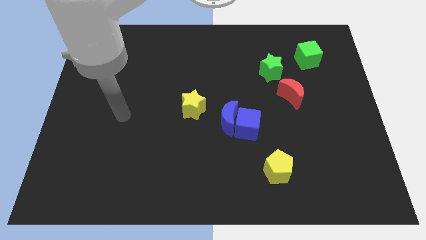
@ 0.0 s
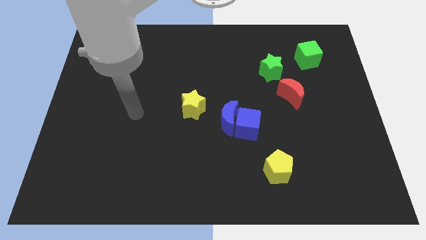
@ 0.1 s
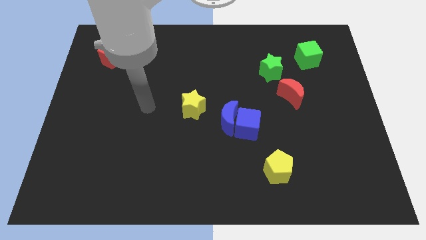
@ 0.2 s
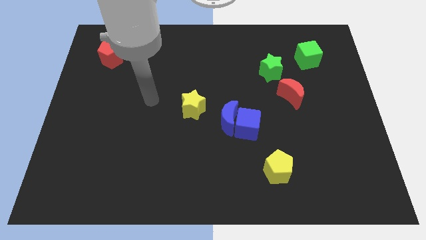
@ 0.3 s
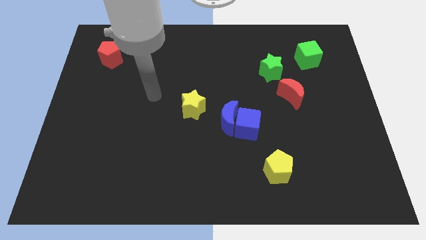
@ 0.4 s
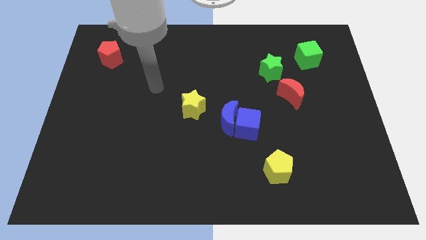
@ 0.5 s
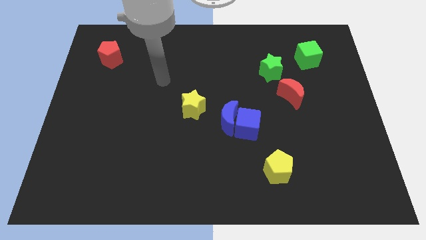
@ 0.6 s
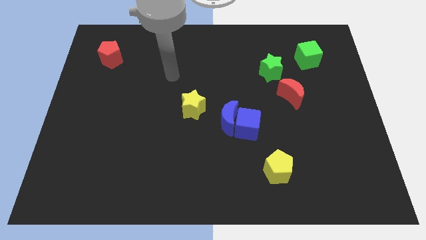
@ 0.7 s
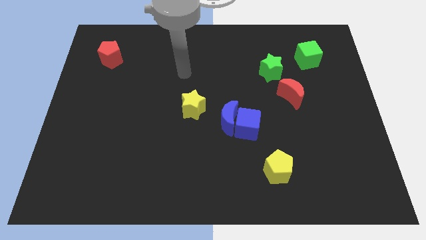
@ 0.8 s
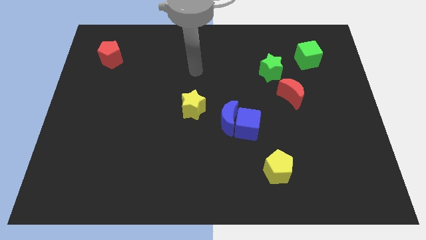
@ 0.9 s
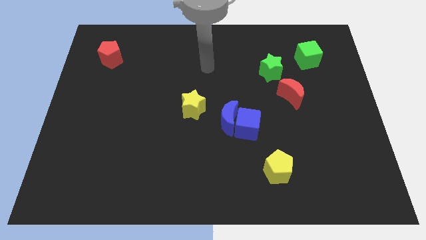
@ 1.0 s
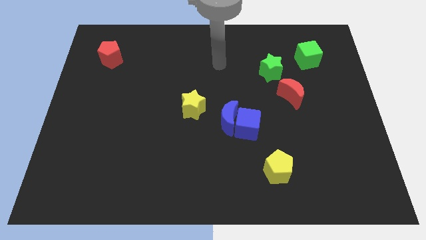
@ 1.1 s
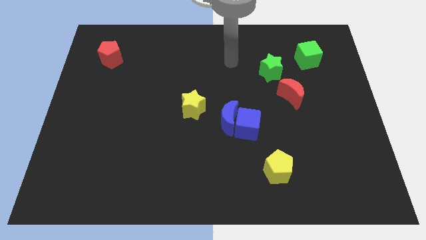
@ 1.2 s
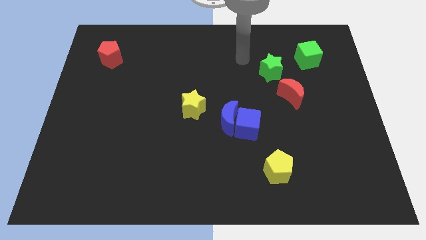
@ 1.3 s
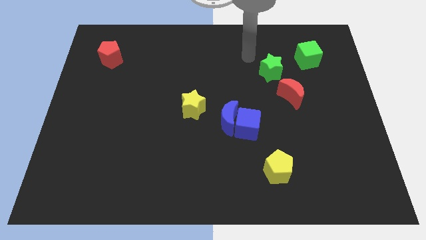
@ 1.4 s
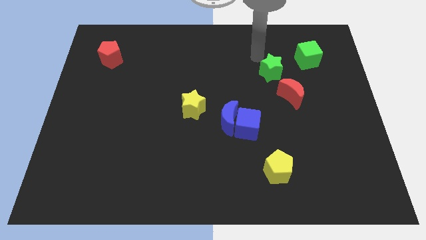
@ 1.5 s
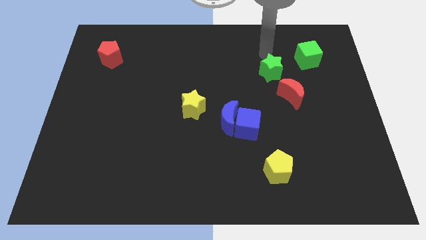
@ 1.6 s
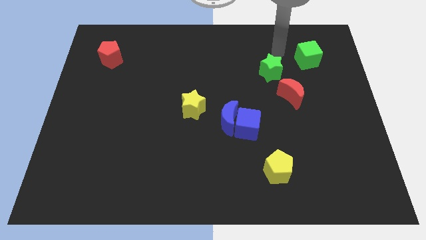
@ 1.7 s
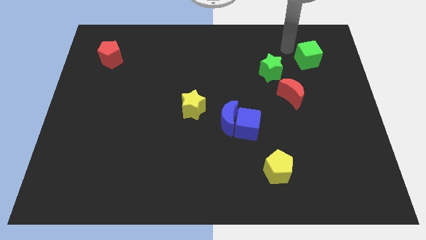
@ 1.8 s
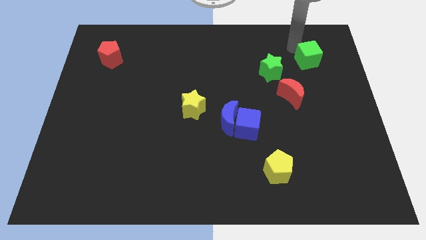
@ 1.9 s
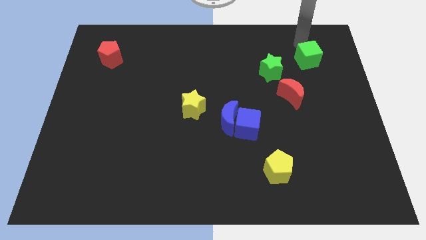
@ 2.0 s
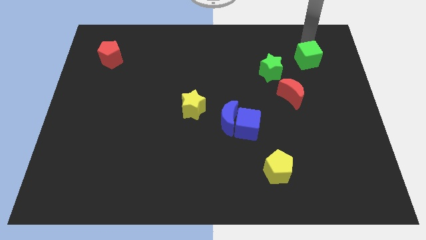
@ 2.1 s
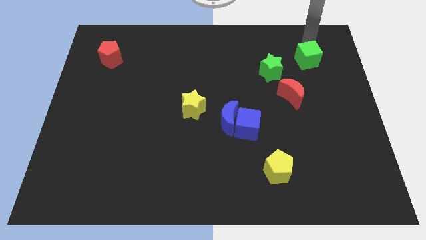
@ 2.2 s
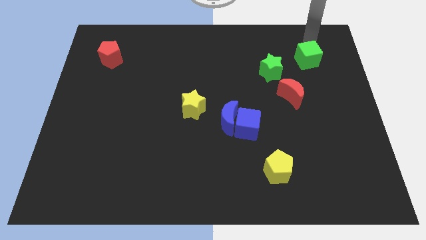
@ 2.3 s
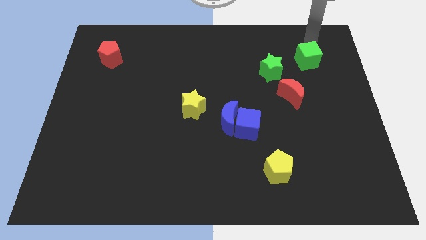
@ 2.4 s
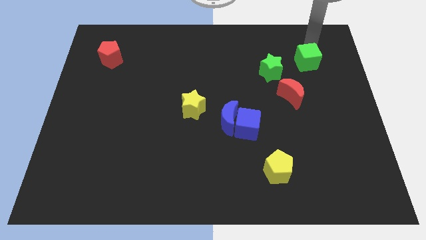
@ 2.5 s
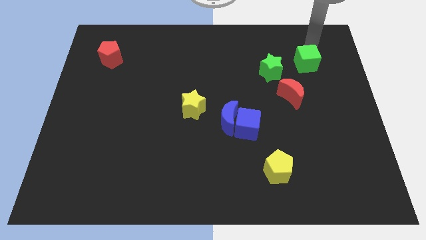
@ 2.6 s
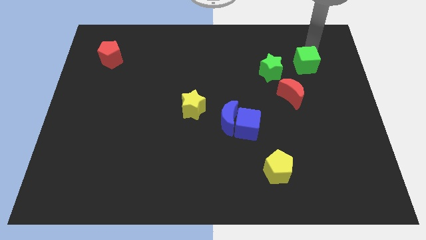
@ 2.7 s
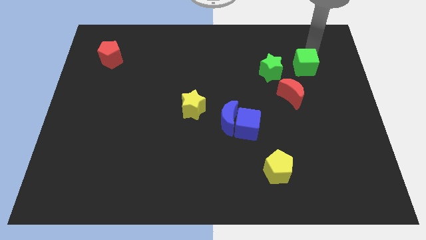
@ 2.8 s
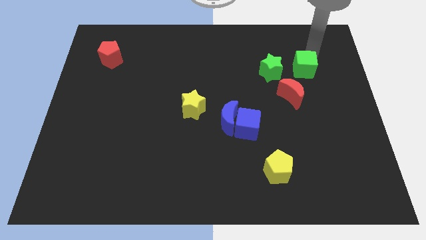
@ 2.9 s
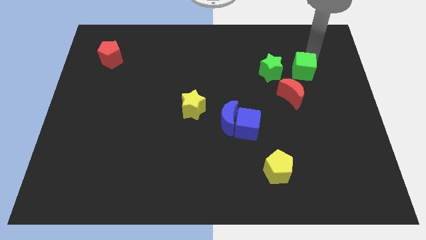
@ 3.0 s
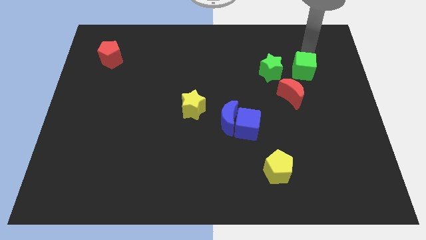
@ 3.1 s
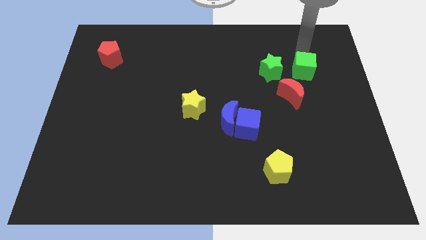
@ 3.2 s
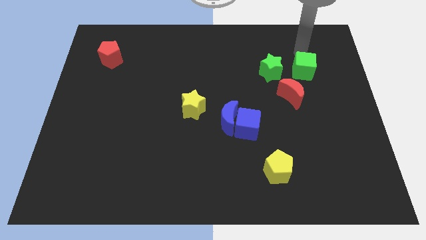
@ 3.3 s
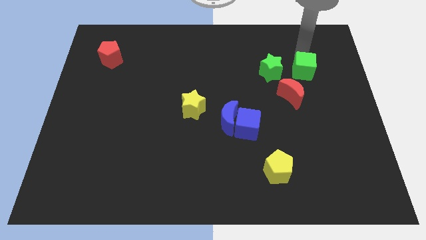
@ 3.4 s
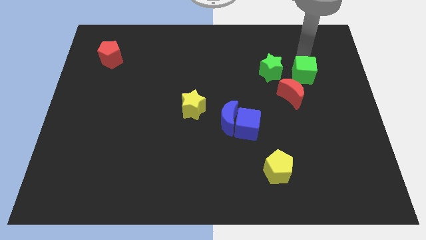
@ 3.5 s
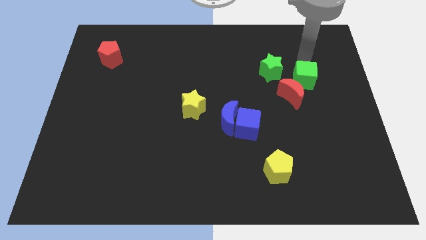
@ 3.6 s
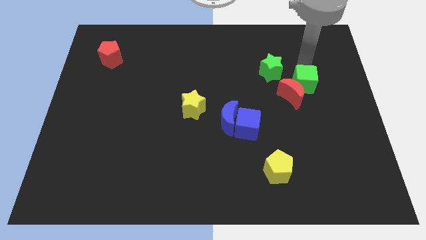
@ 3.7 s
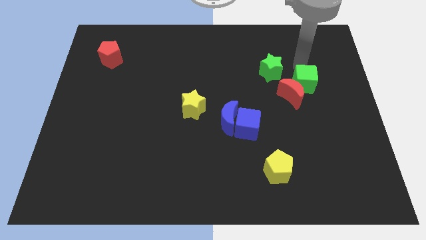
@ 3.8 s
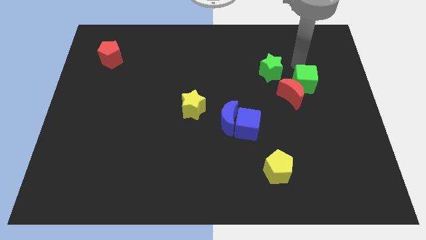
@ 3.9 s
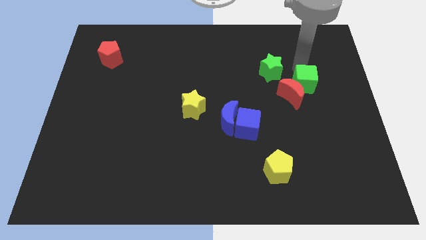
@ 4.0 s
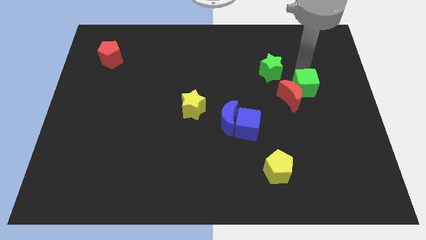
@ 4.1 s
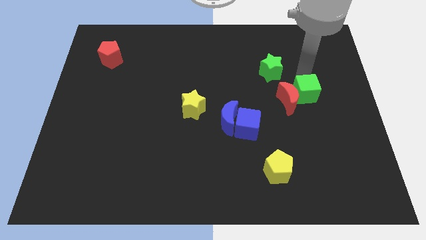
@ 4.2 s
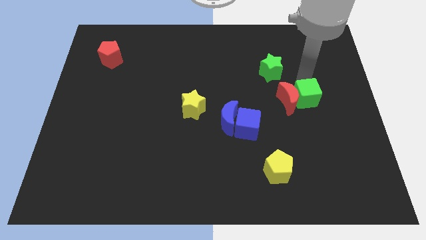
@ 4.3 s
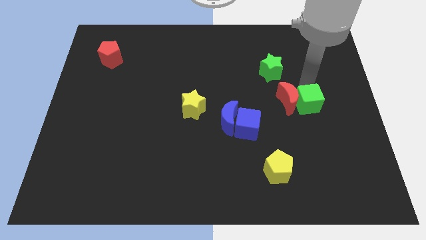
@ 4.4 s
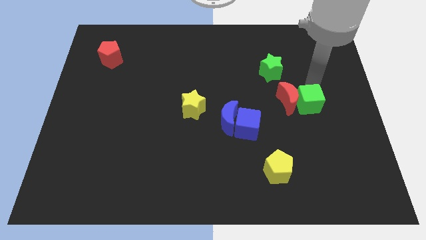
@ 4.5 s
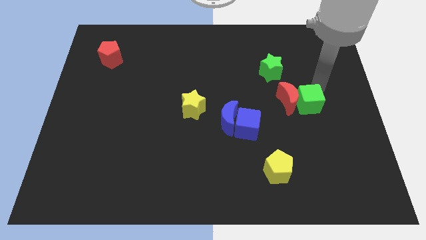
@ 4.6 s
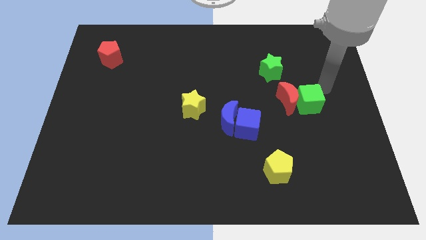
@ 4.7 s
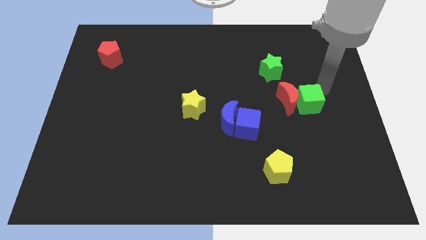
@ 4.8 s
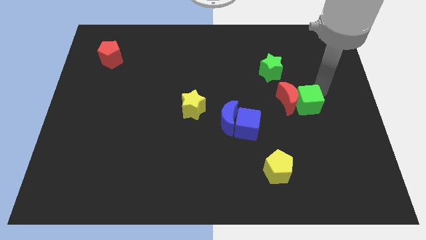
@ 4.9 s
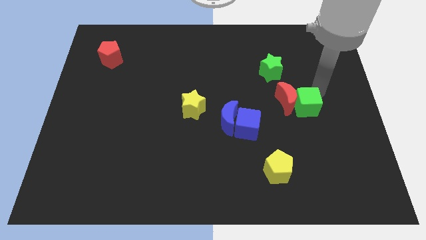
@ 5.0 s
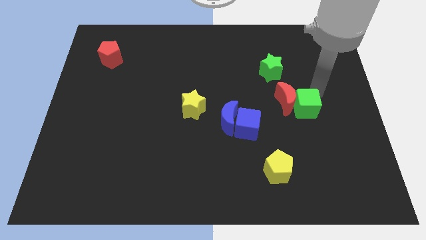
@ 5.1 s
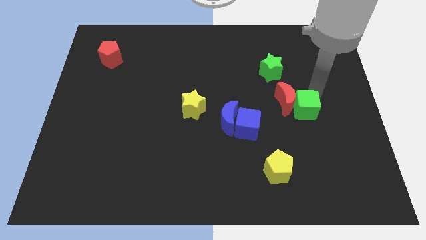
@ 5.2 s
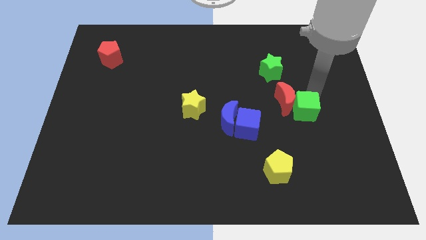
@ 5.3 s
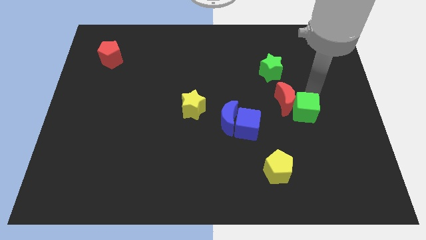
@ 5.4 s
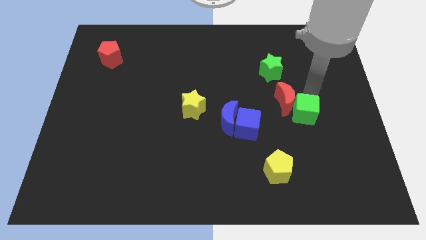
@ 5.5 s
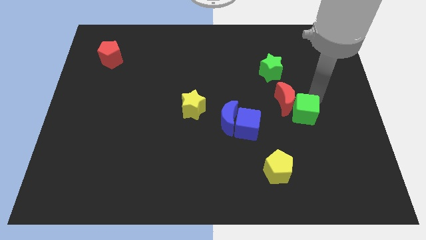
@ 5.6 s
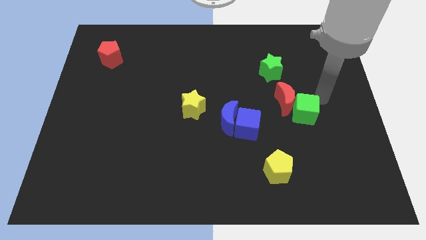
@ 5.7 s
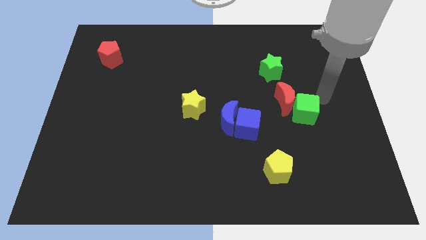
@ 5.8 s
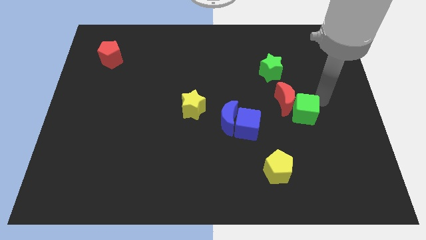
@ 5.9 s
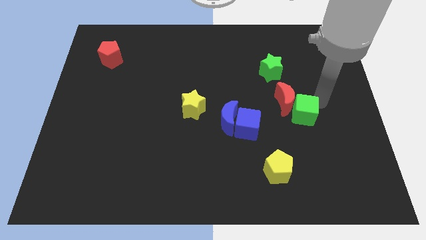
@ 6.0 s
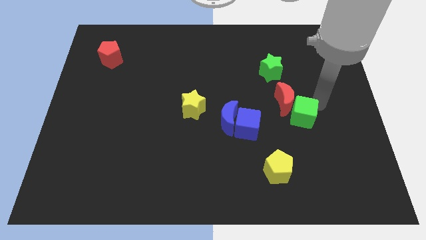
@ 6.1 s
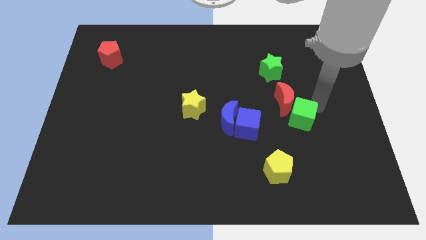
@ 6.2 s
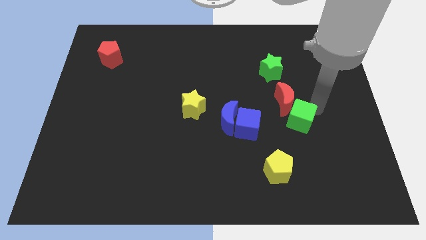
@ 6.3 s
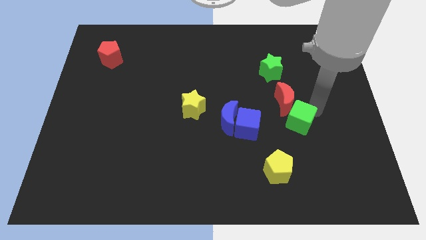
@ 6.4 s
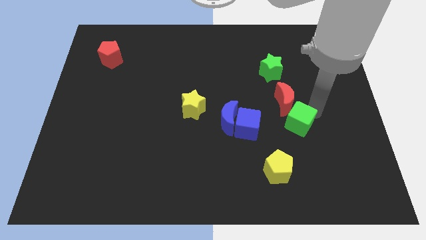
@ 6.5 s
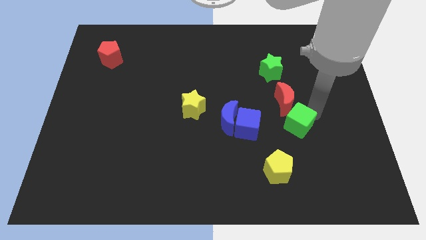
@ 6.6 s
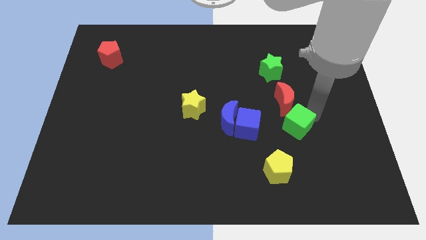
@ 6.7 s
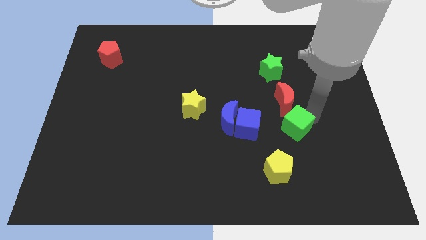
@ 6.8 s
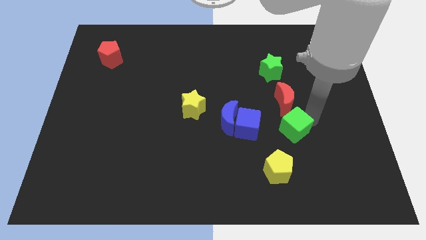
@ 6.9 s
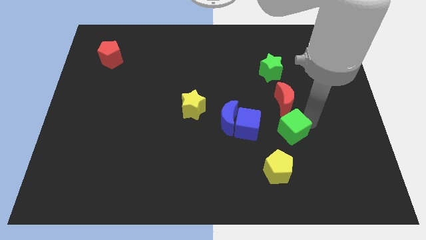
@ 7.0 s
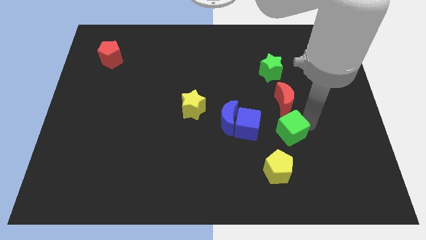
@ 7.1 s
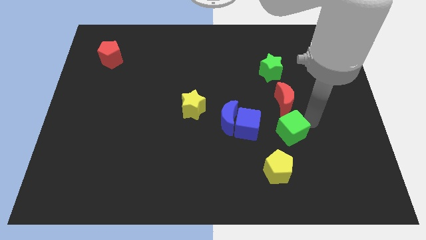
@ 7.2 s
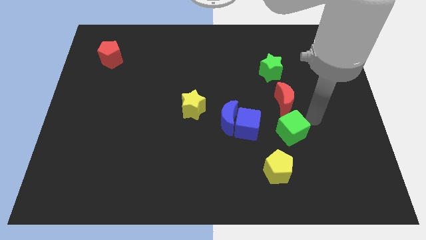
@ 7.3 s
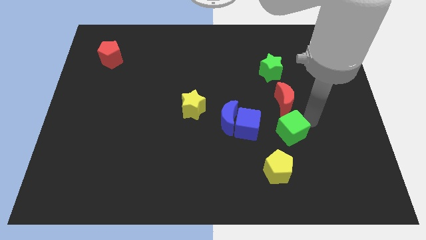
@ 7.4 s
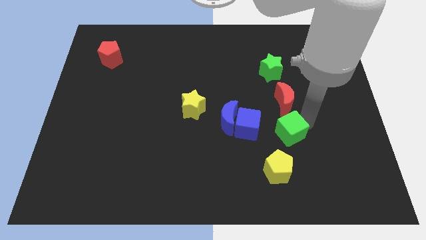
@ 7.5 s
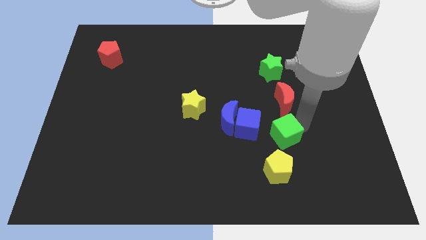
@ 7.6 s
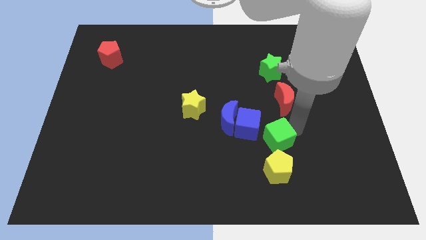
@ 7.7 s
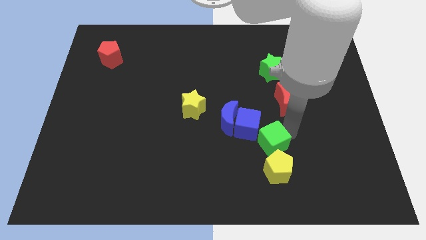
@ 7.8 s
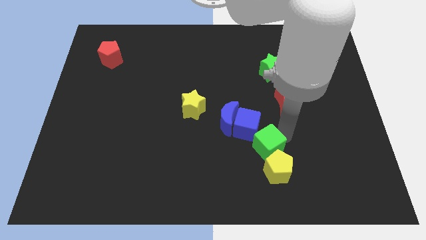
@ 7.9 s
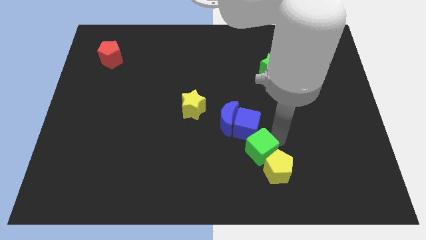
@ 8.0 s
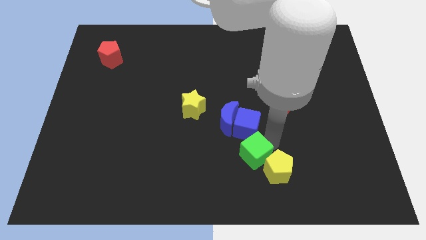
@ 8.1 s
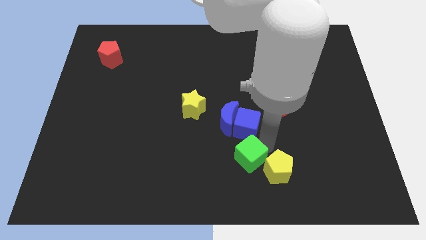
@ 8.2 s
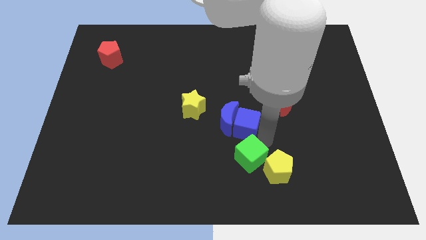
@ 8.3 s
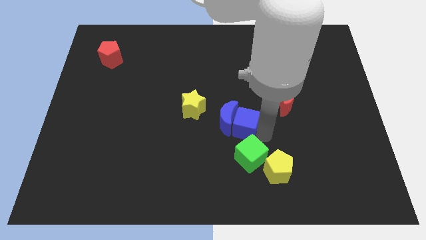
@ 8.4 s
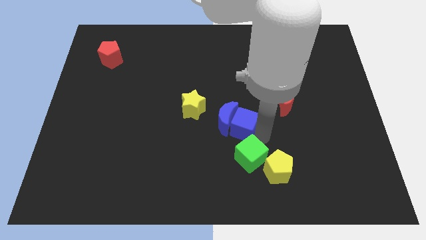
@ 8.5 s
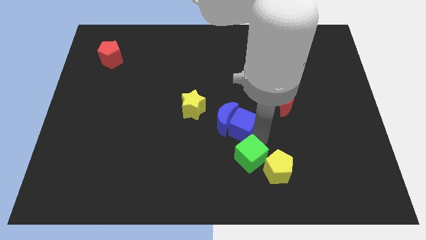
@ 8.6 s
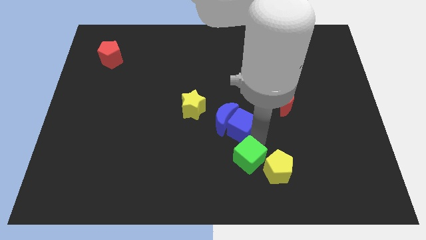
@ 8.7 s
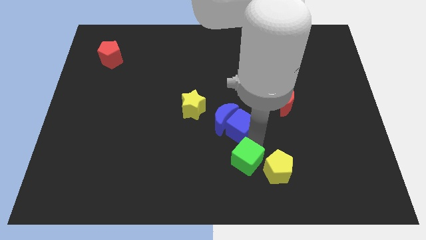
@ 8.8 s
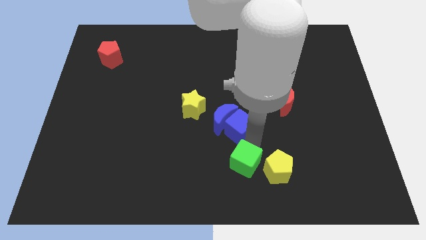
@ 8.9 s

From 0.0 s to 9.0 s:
slide the green cube to the bottom
